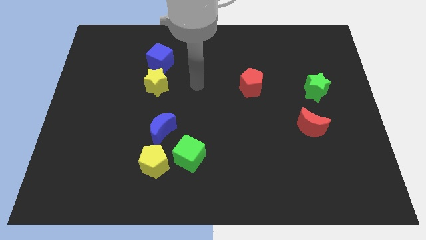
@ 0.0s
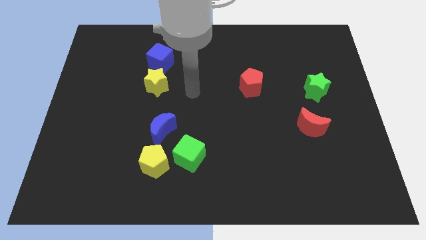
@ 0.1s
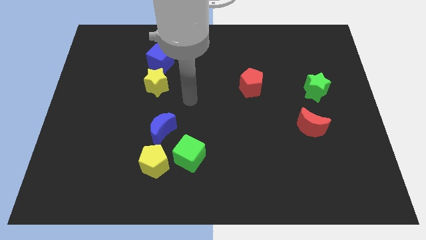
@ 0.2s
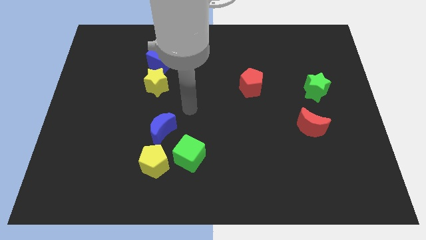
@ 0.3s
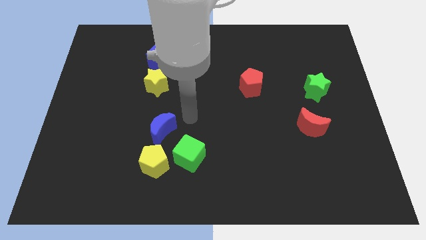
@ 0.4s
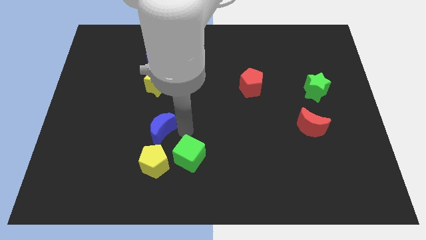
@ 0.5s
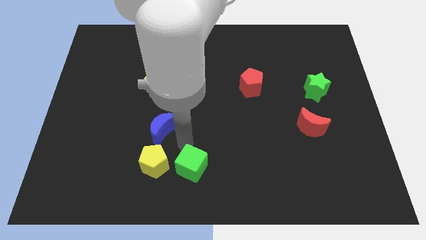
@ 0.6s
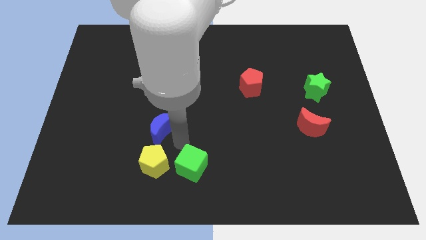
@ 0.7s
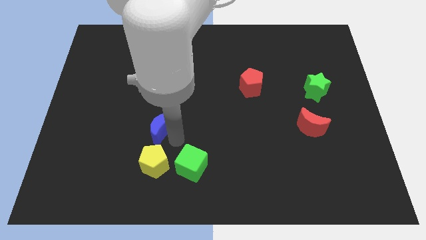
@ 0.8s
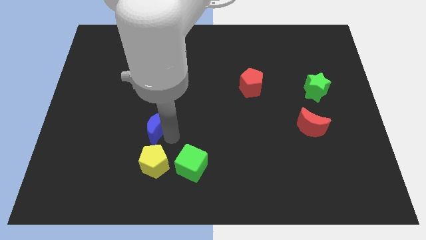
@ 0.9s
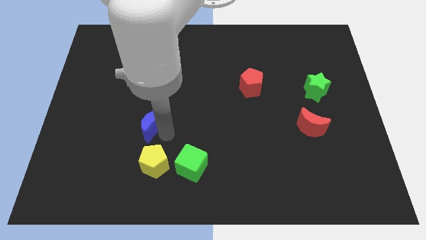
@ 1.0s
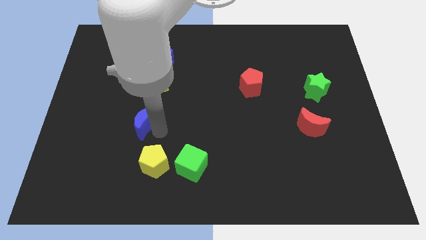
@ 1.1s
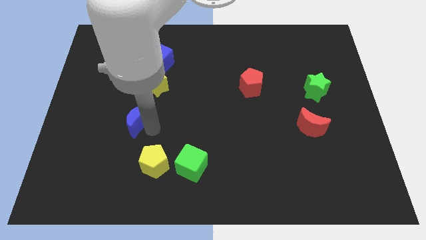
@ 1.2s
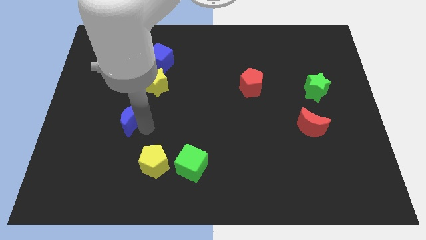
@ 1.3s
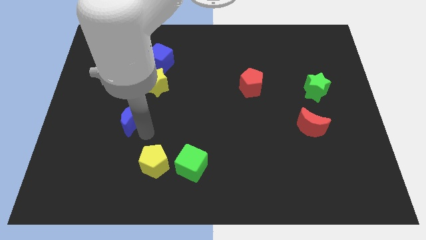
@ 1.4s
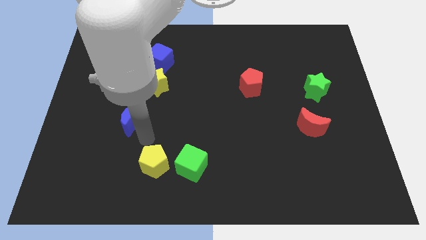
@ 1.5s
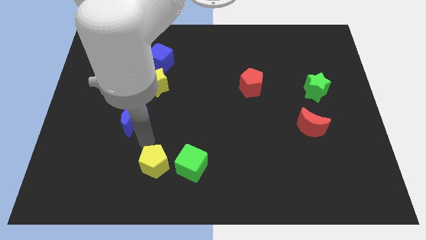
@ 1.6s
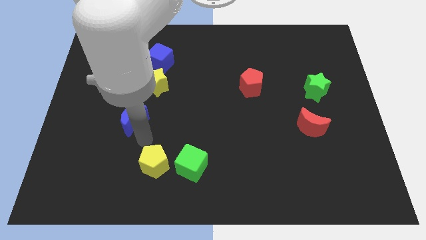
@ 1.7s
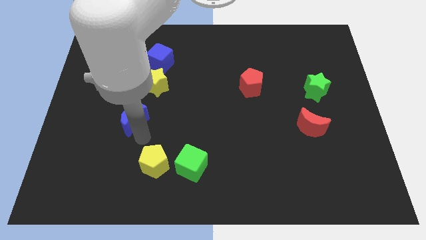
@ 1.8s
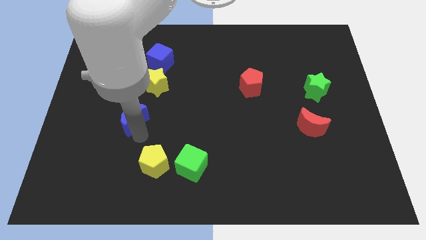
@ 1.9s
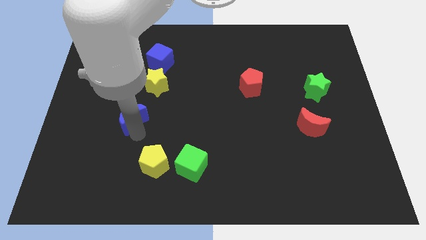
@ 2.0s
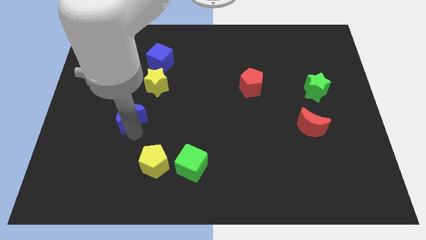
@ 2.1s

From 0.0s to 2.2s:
slightly move the blue moon diagonally upwards and left

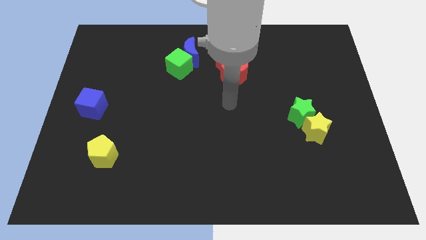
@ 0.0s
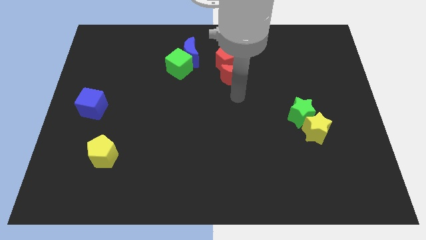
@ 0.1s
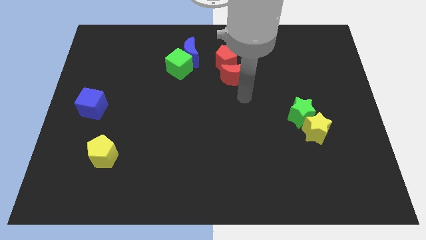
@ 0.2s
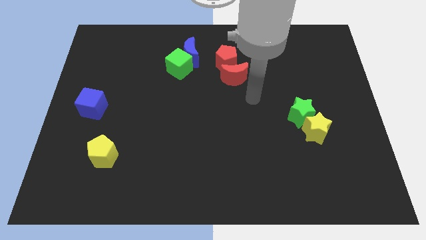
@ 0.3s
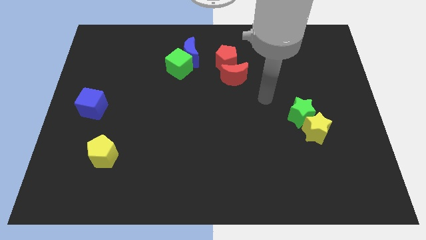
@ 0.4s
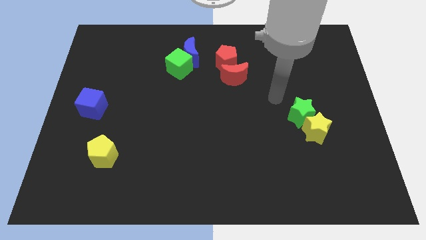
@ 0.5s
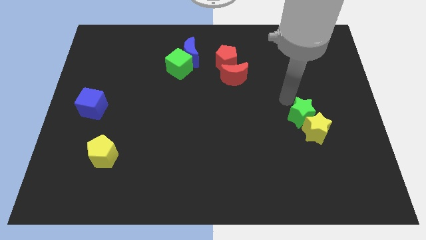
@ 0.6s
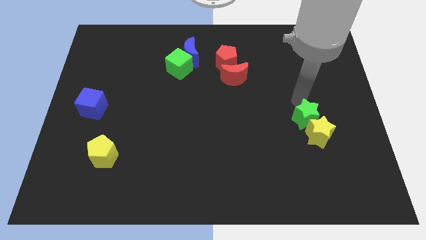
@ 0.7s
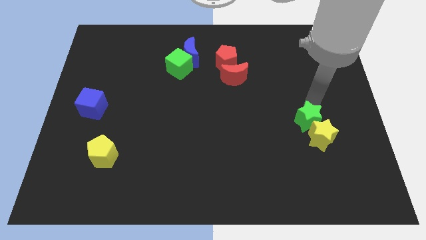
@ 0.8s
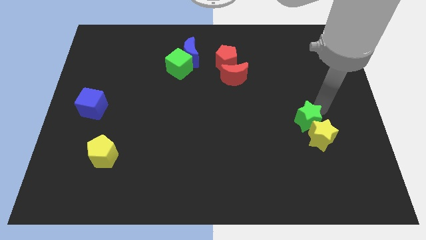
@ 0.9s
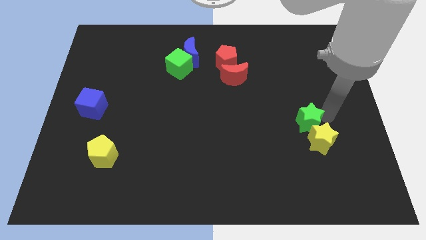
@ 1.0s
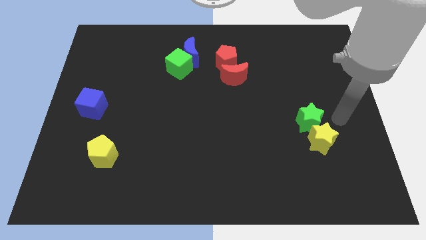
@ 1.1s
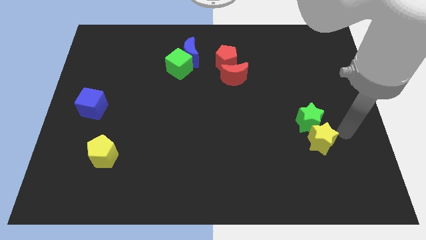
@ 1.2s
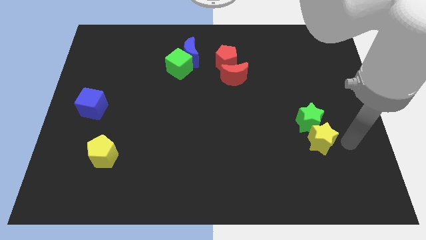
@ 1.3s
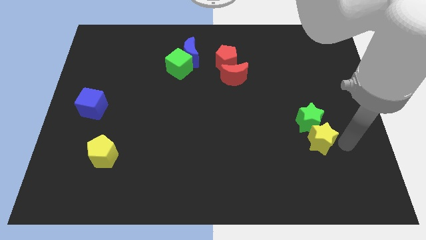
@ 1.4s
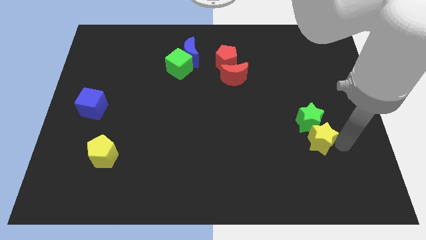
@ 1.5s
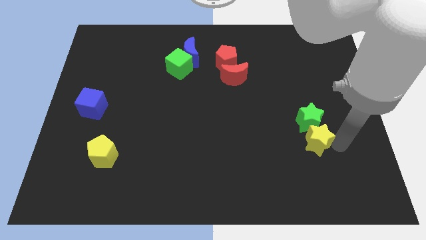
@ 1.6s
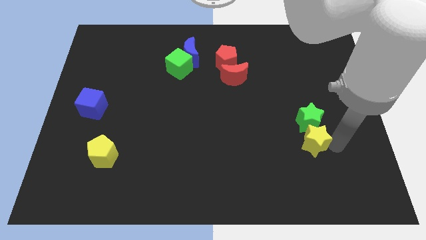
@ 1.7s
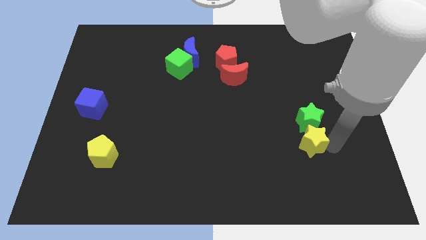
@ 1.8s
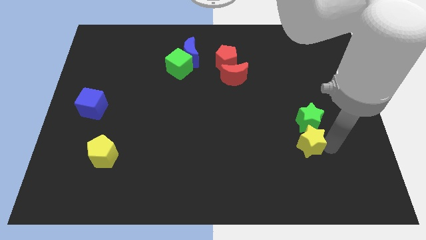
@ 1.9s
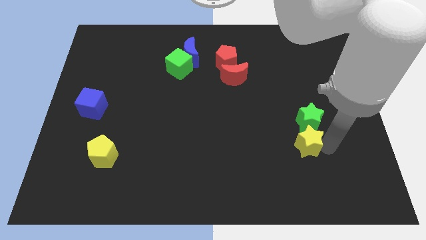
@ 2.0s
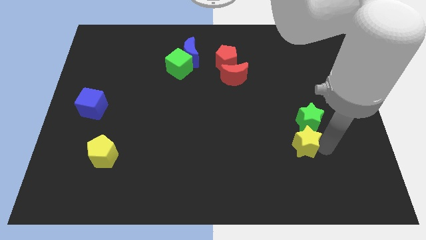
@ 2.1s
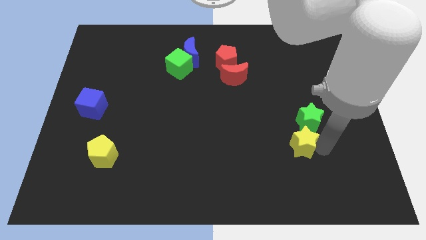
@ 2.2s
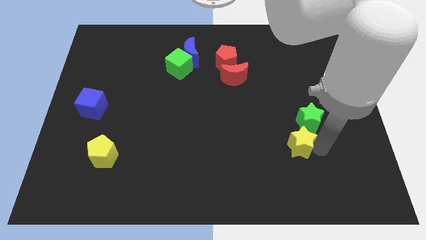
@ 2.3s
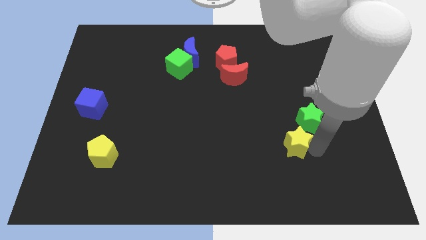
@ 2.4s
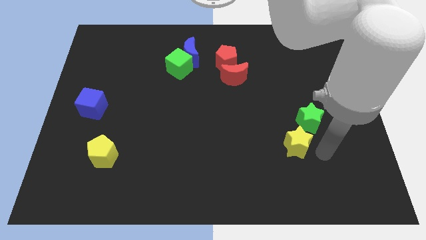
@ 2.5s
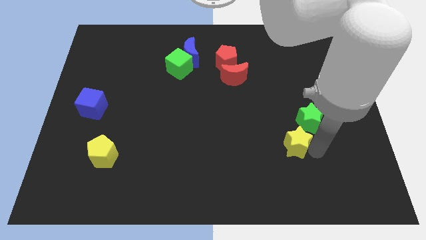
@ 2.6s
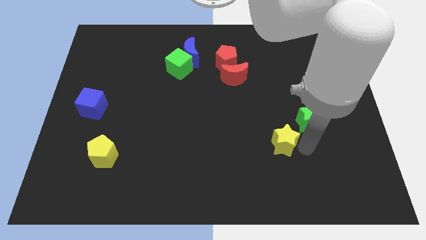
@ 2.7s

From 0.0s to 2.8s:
move the yellow star a little to the left

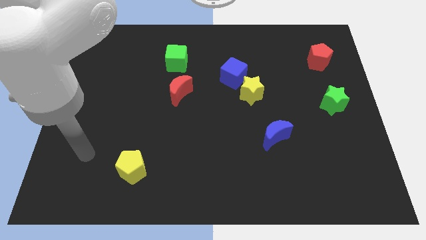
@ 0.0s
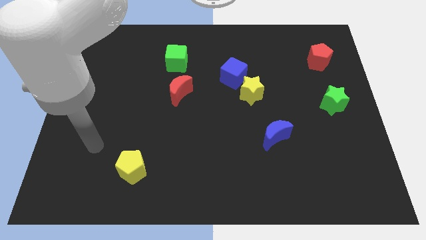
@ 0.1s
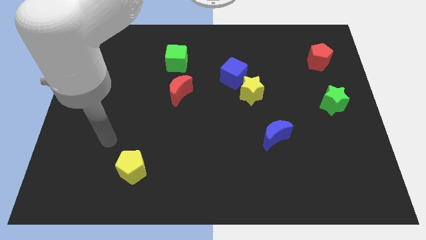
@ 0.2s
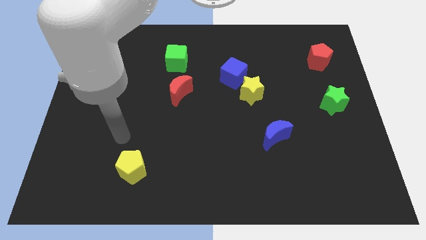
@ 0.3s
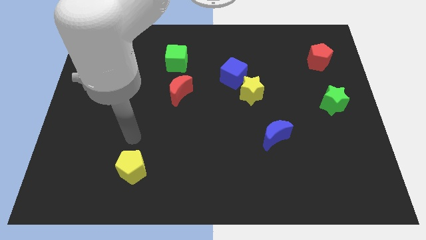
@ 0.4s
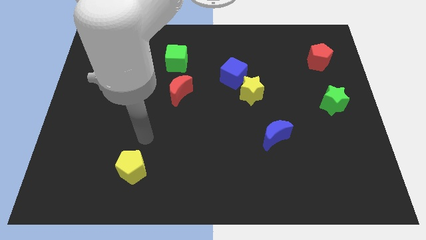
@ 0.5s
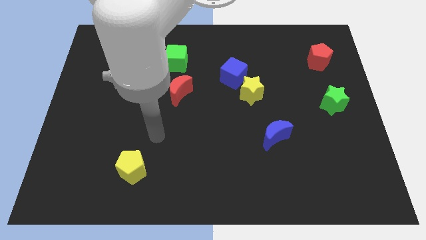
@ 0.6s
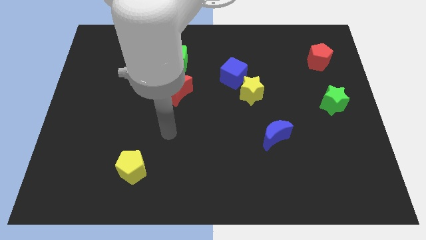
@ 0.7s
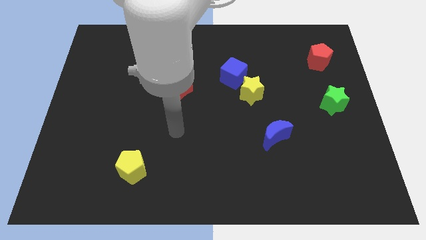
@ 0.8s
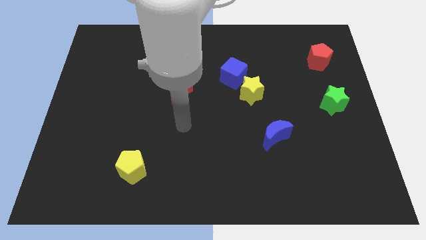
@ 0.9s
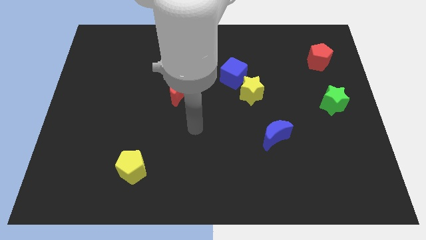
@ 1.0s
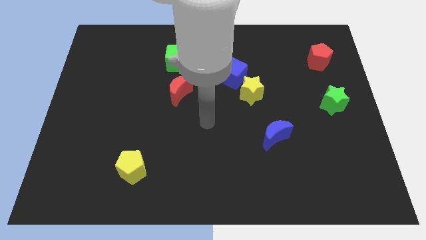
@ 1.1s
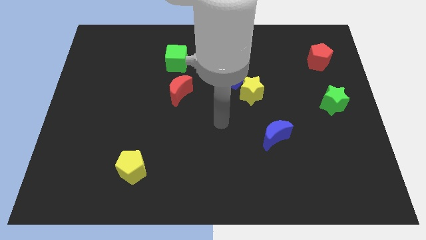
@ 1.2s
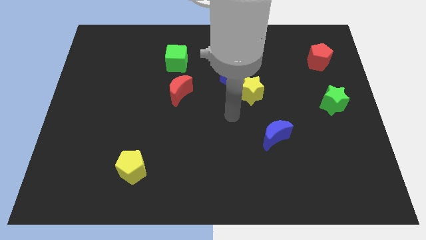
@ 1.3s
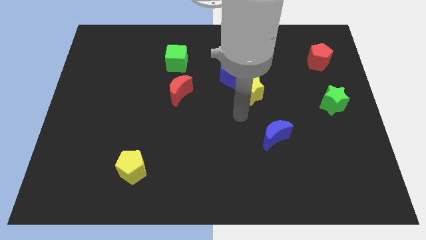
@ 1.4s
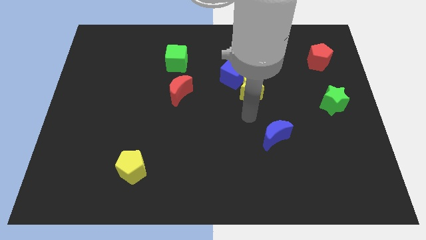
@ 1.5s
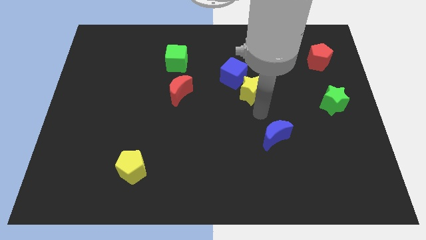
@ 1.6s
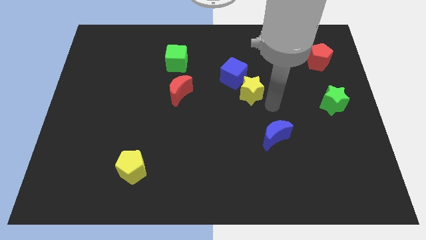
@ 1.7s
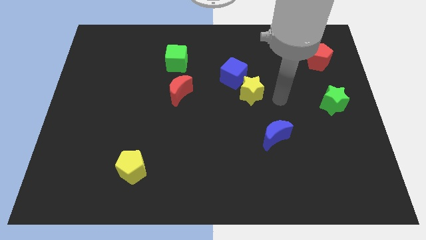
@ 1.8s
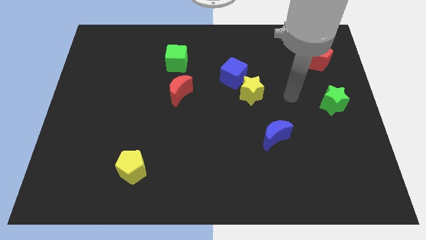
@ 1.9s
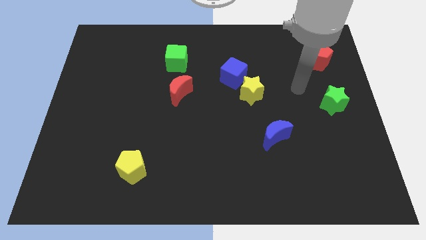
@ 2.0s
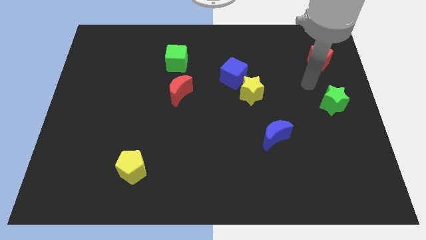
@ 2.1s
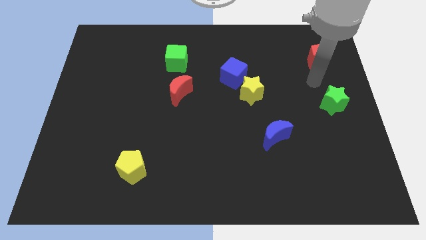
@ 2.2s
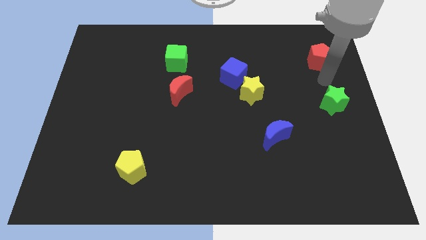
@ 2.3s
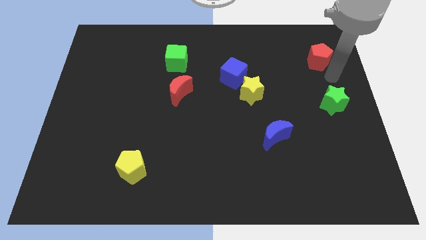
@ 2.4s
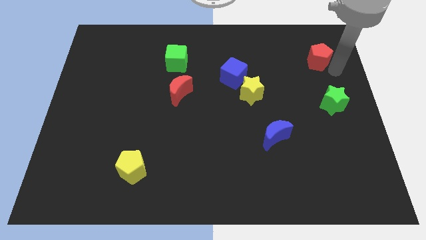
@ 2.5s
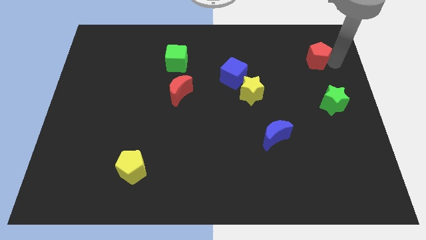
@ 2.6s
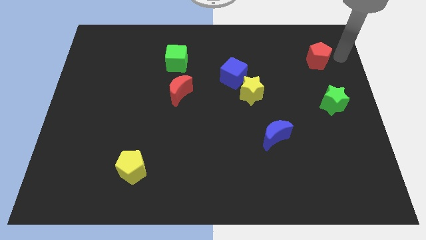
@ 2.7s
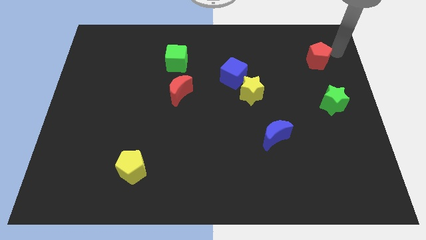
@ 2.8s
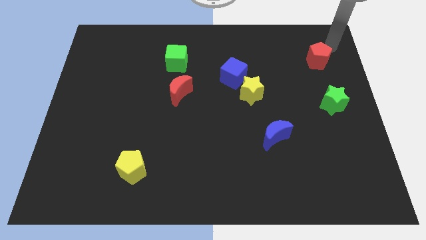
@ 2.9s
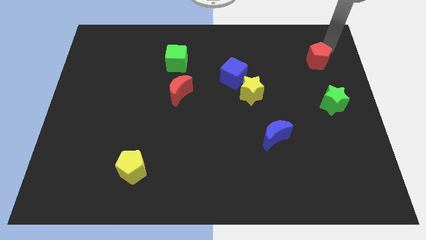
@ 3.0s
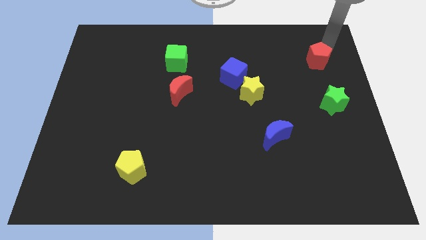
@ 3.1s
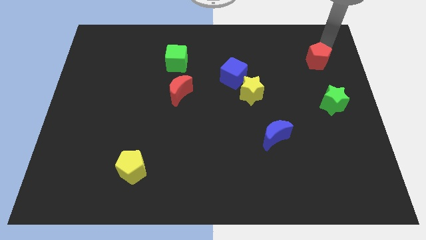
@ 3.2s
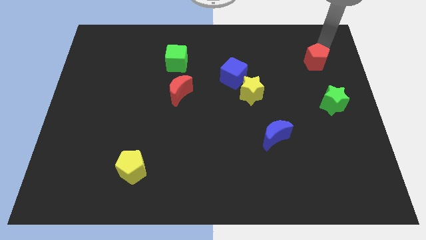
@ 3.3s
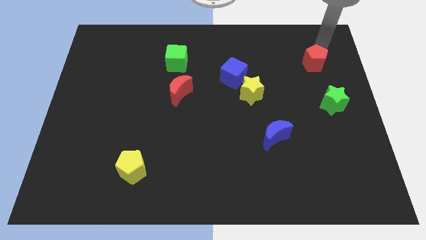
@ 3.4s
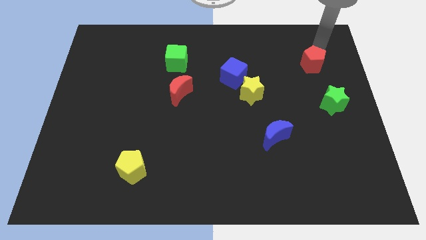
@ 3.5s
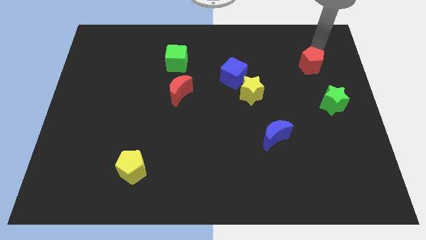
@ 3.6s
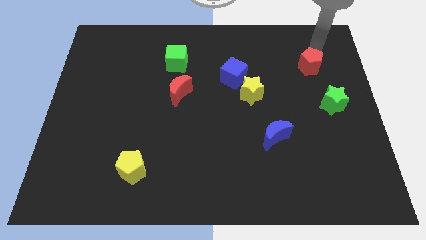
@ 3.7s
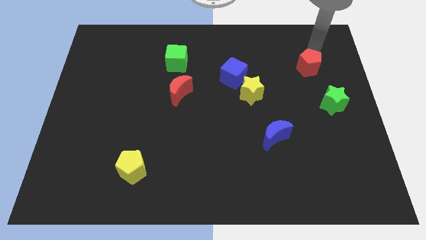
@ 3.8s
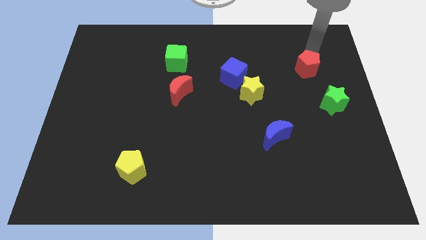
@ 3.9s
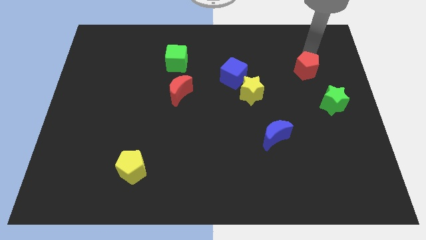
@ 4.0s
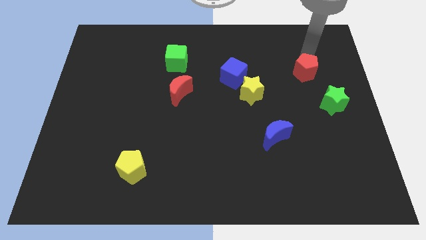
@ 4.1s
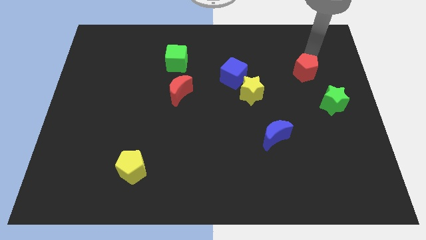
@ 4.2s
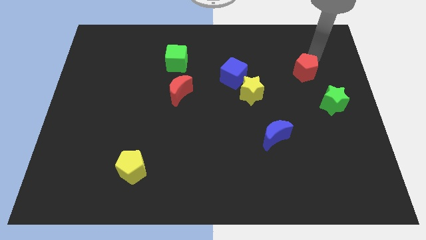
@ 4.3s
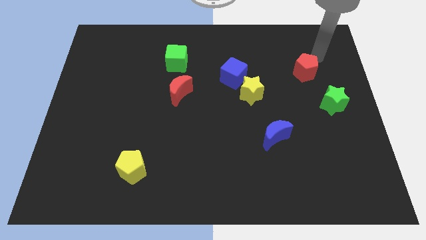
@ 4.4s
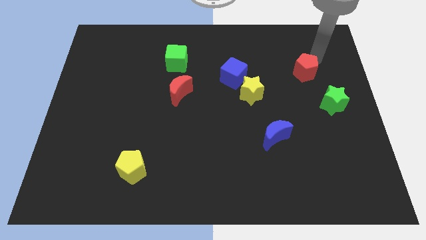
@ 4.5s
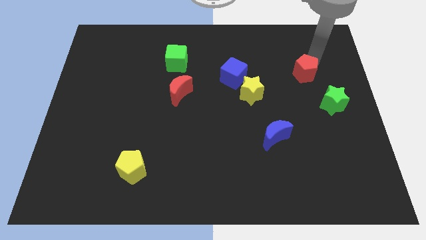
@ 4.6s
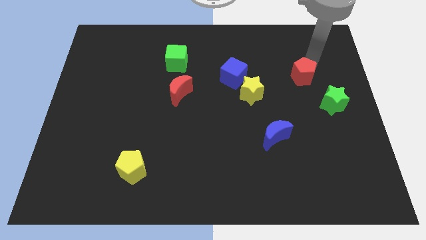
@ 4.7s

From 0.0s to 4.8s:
slightly move the red pentagon diagonally downwards and left
